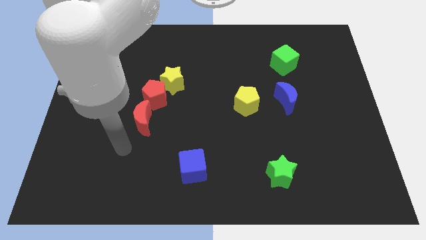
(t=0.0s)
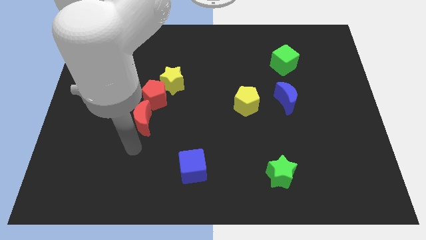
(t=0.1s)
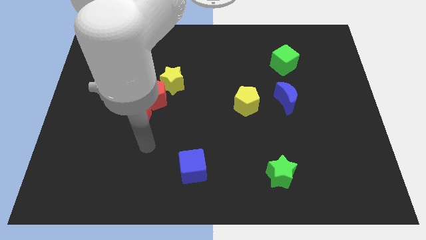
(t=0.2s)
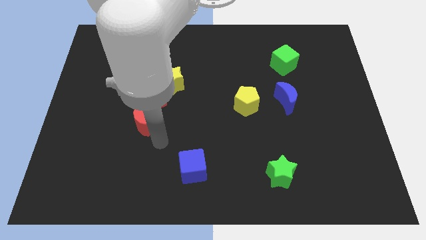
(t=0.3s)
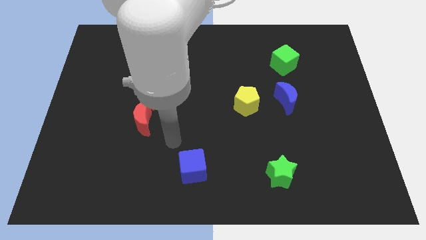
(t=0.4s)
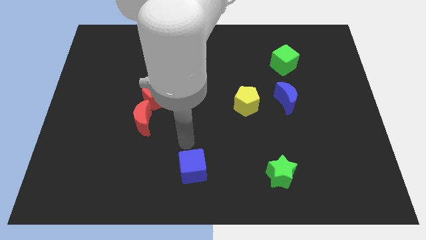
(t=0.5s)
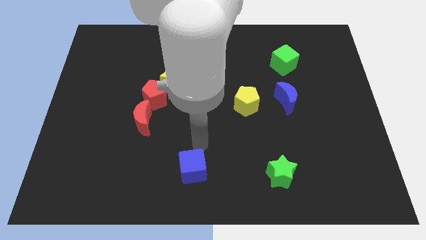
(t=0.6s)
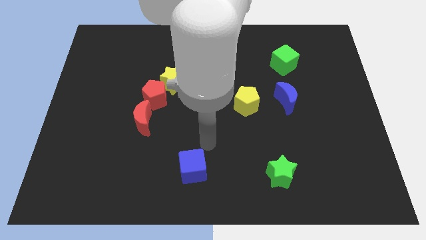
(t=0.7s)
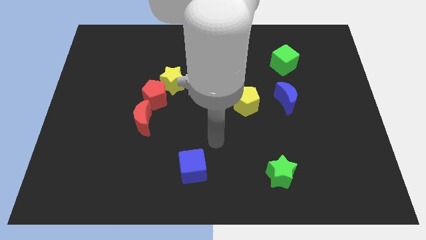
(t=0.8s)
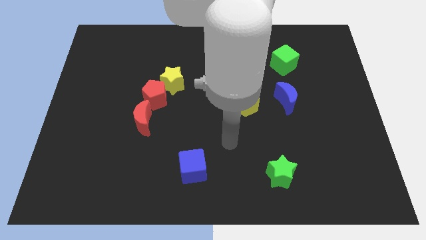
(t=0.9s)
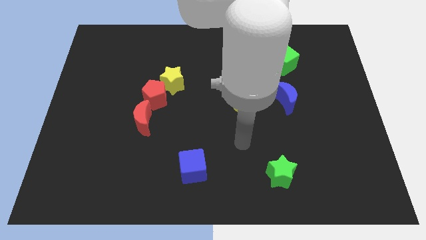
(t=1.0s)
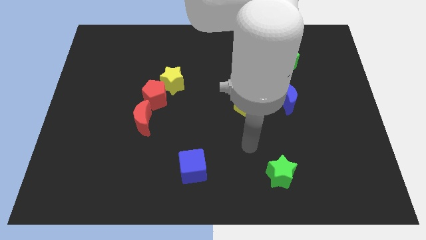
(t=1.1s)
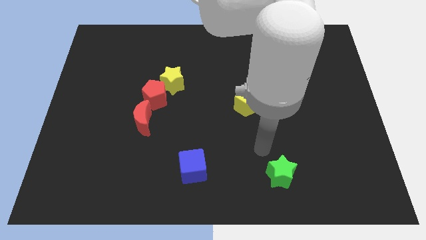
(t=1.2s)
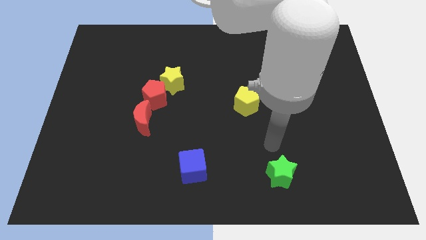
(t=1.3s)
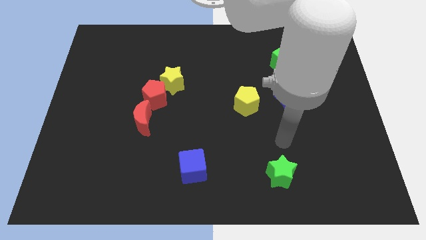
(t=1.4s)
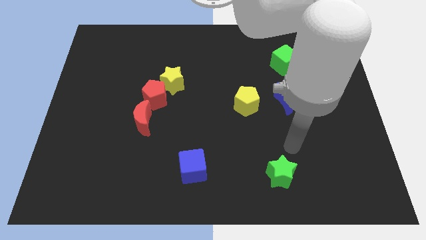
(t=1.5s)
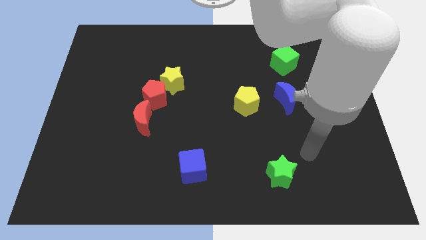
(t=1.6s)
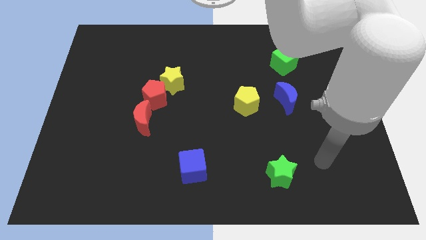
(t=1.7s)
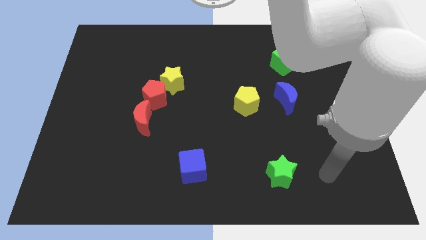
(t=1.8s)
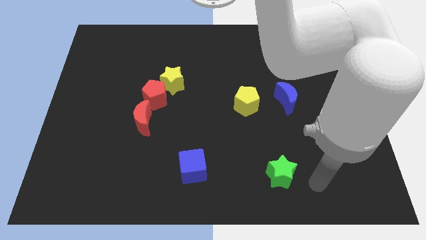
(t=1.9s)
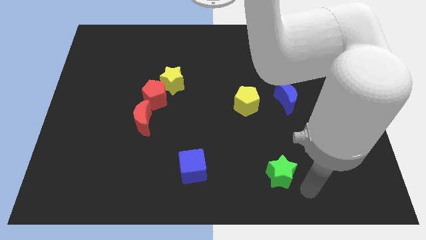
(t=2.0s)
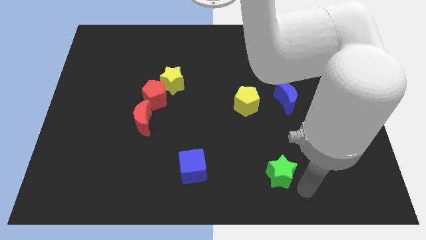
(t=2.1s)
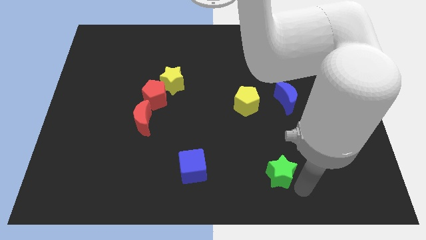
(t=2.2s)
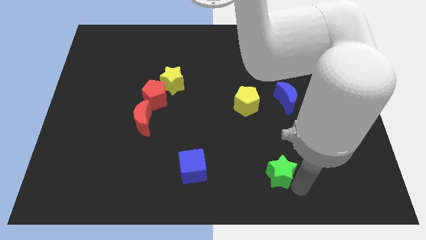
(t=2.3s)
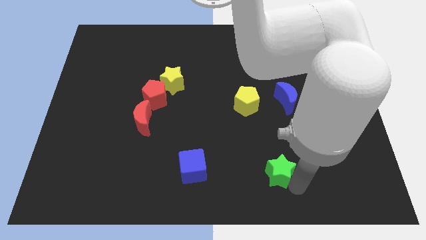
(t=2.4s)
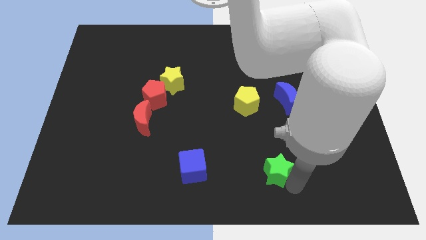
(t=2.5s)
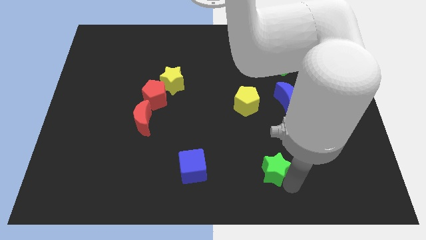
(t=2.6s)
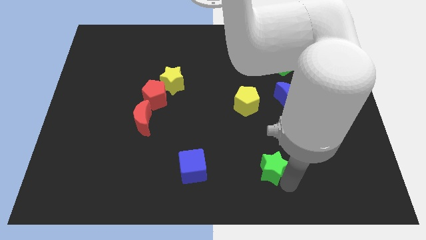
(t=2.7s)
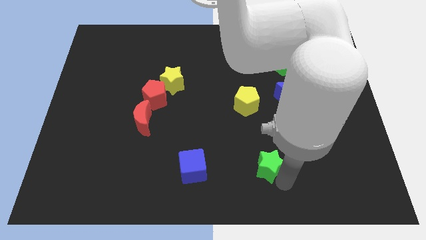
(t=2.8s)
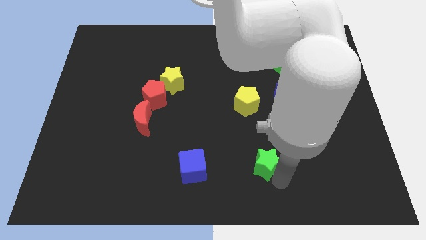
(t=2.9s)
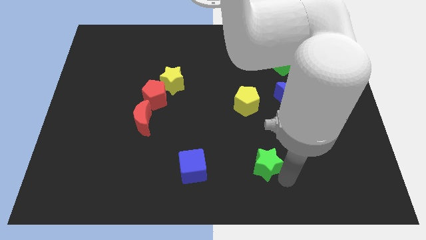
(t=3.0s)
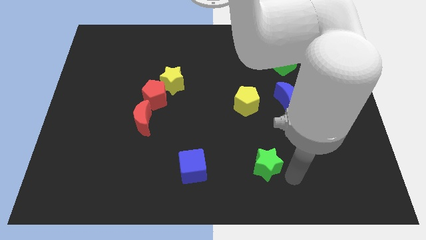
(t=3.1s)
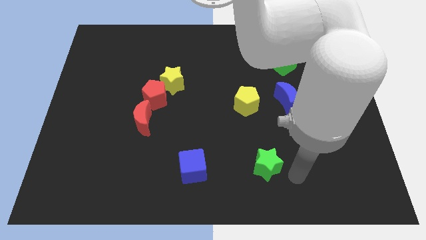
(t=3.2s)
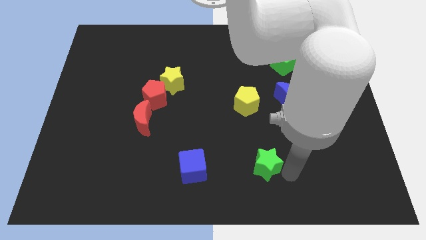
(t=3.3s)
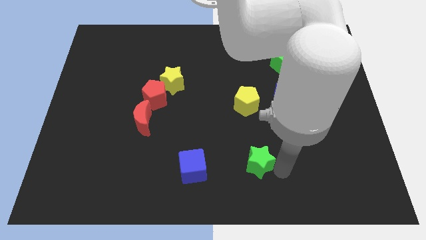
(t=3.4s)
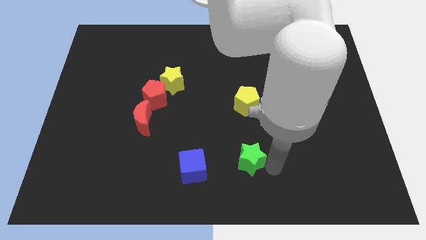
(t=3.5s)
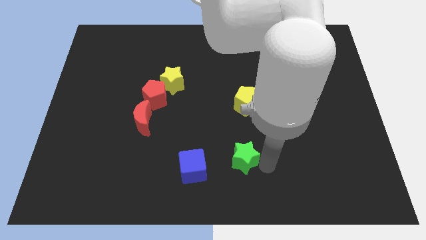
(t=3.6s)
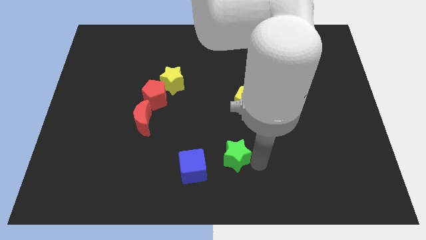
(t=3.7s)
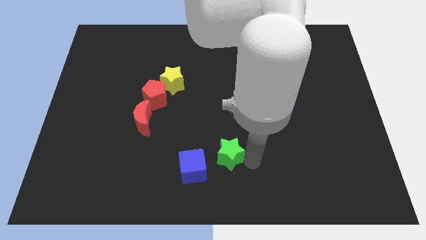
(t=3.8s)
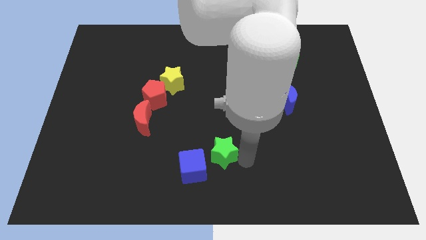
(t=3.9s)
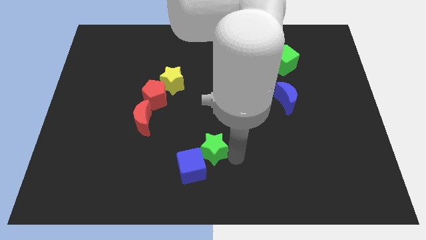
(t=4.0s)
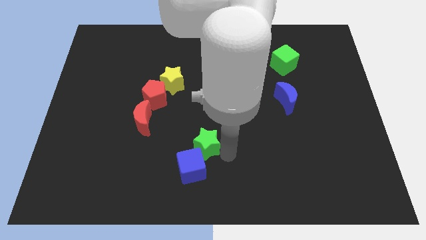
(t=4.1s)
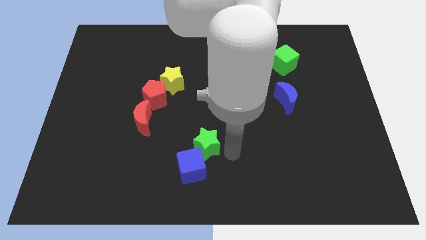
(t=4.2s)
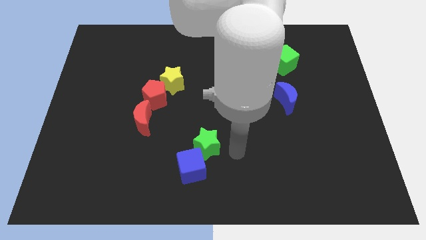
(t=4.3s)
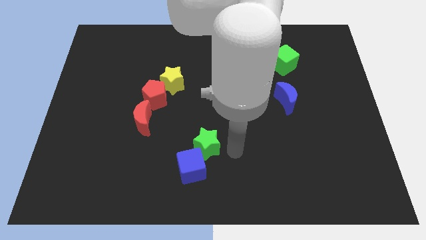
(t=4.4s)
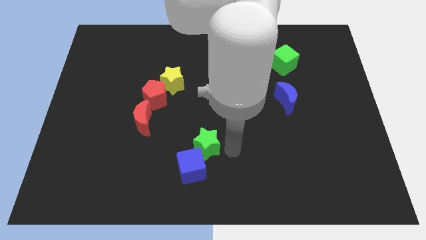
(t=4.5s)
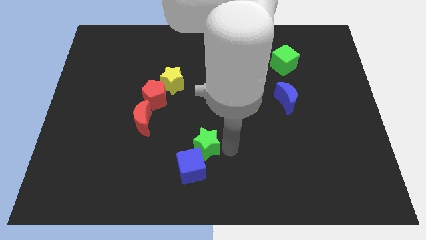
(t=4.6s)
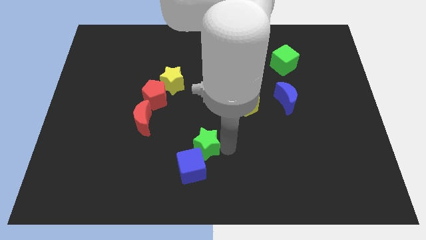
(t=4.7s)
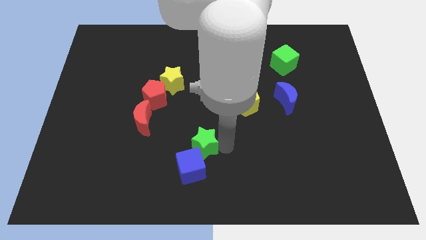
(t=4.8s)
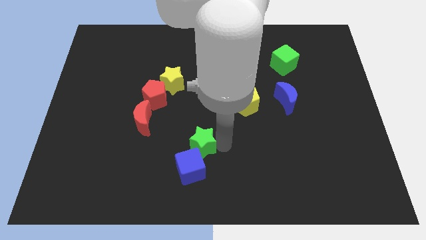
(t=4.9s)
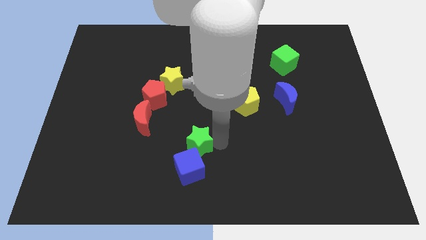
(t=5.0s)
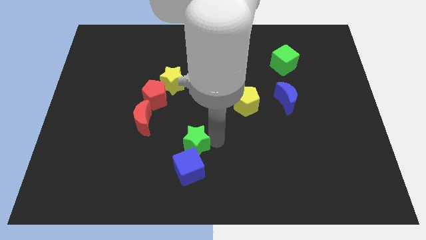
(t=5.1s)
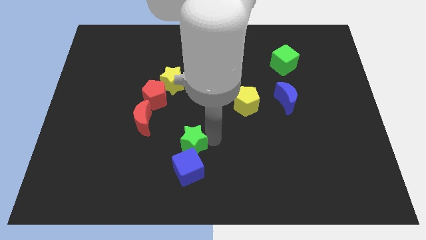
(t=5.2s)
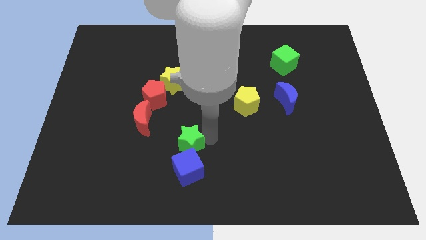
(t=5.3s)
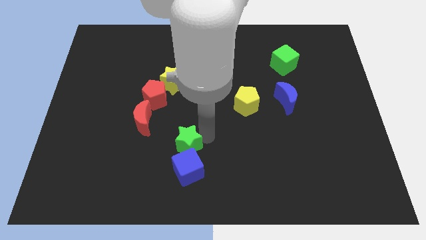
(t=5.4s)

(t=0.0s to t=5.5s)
push the green star to the bottom right of the red moon

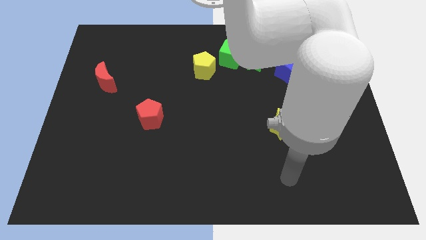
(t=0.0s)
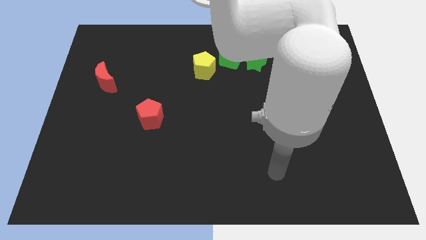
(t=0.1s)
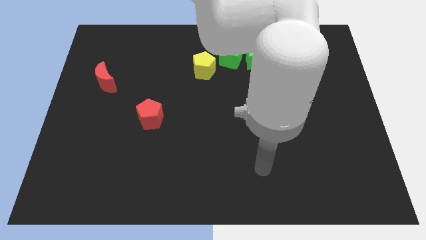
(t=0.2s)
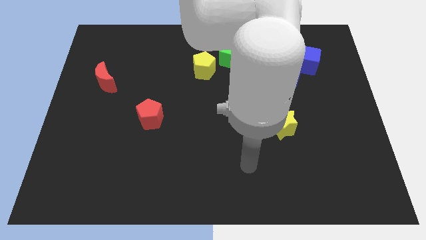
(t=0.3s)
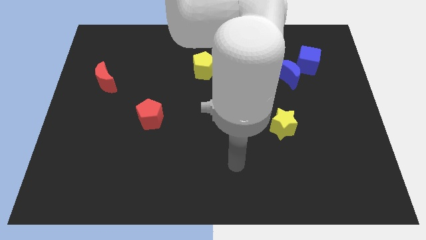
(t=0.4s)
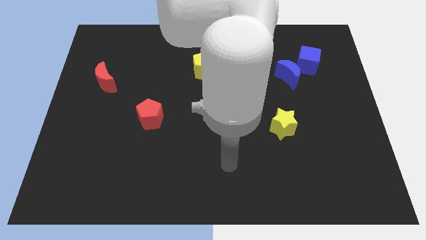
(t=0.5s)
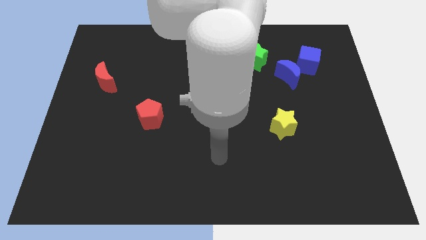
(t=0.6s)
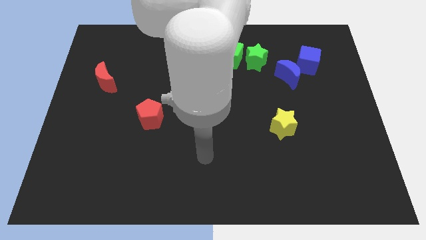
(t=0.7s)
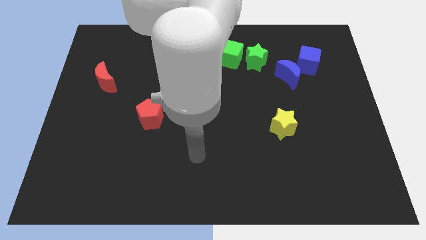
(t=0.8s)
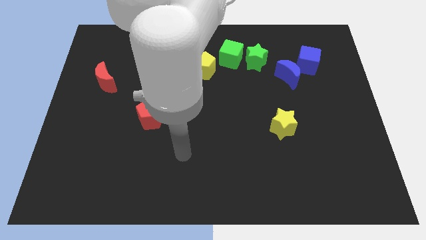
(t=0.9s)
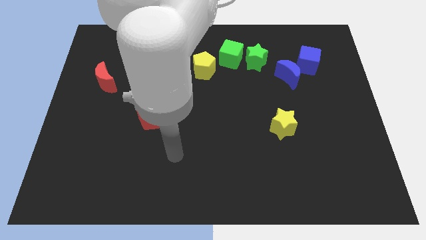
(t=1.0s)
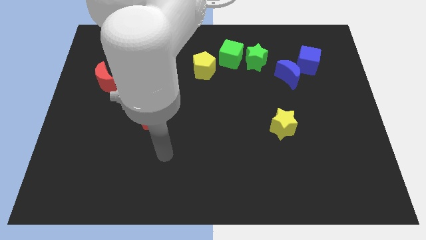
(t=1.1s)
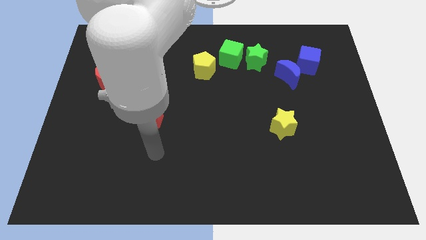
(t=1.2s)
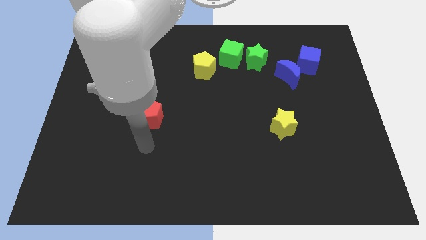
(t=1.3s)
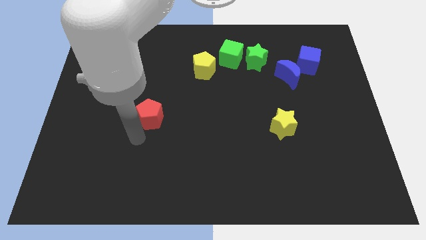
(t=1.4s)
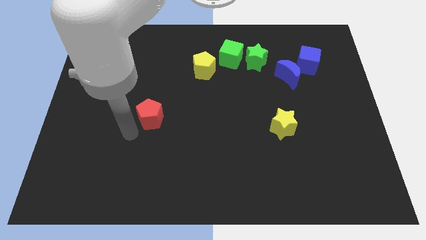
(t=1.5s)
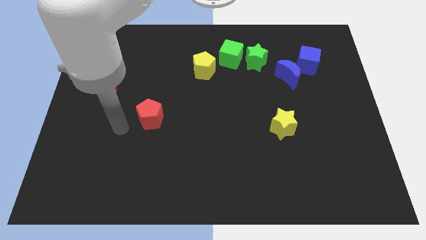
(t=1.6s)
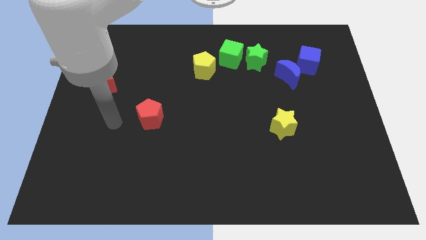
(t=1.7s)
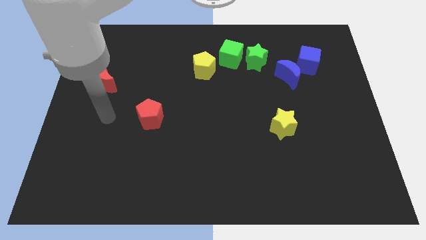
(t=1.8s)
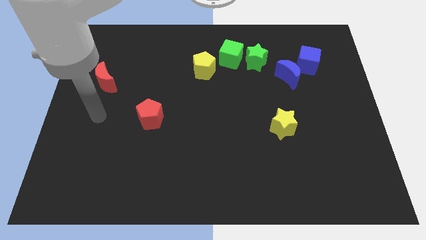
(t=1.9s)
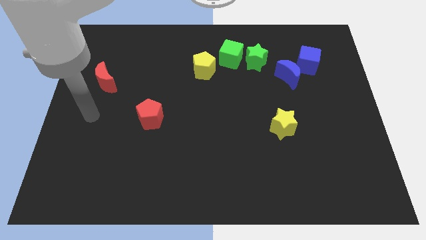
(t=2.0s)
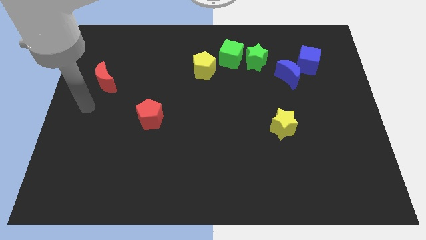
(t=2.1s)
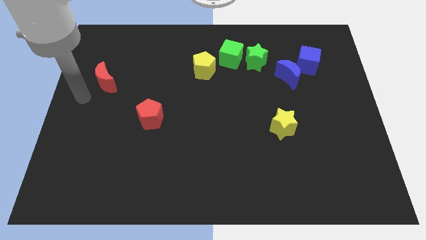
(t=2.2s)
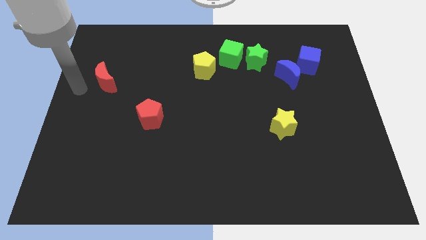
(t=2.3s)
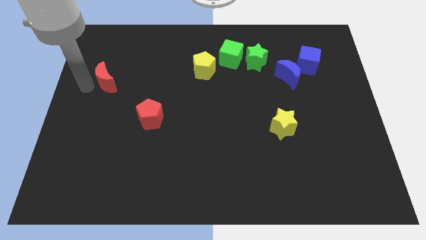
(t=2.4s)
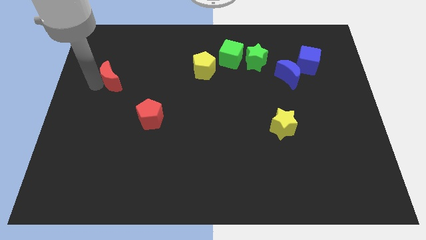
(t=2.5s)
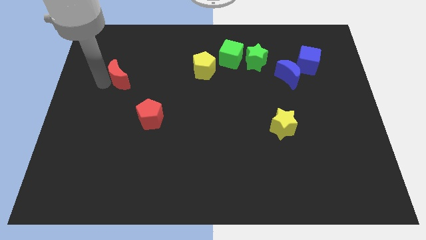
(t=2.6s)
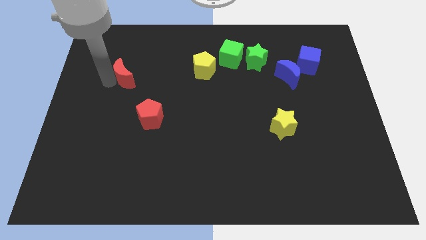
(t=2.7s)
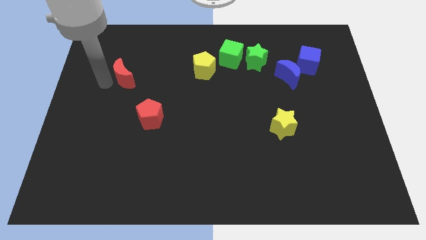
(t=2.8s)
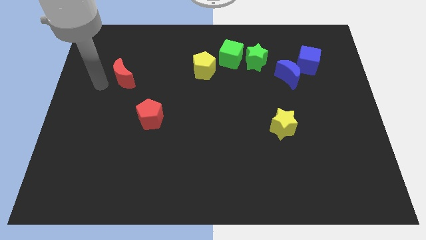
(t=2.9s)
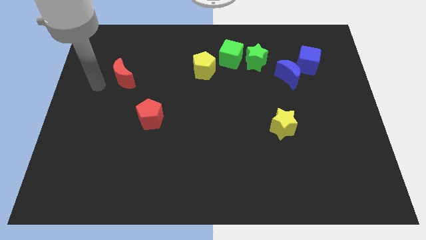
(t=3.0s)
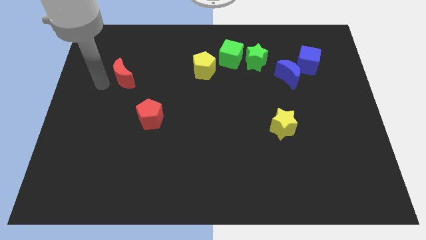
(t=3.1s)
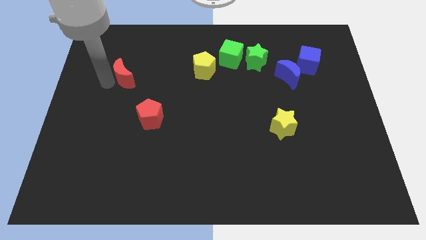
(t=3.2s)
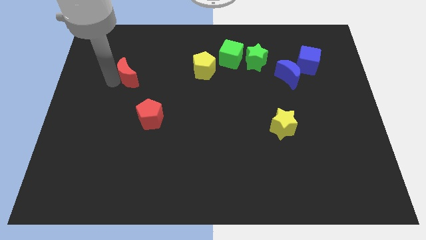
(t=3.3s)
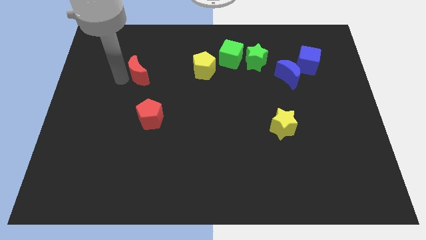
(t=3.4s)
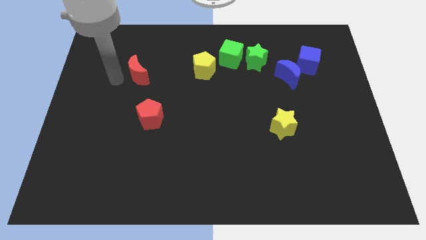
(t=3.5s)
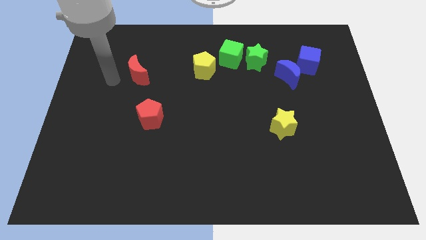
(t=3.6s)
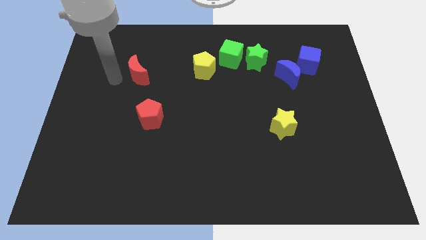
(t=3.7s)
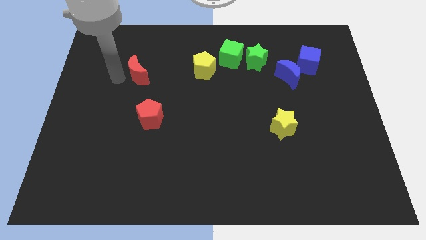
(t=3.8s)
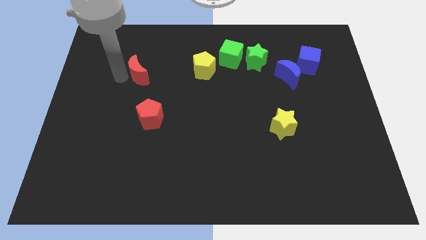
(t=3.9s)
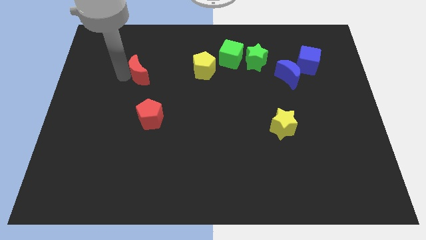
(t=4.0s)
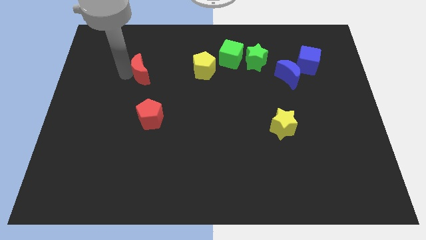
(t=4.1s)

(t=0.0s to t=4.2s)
slide the red moon just left of the yellow pentagon
